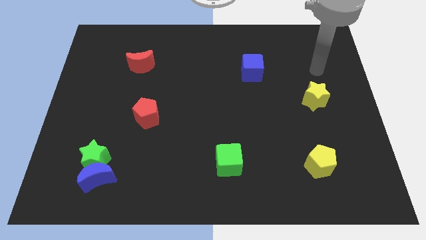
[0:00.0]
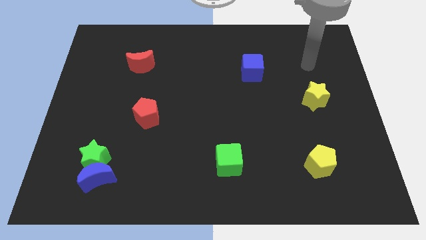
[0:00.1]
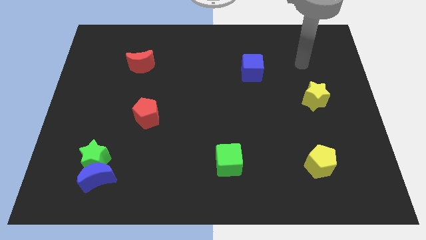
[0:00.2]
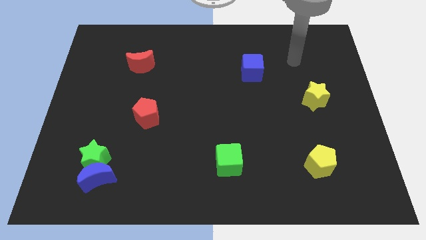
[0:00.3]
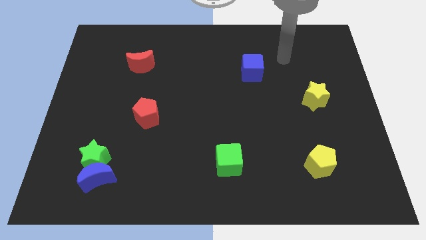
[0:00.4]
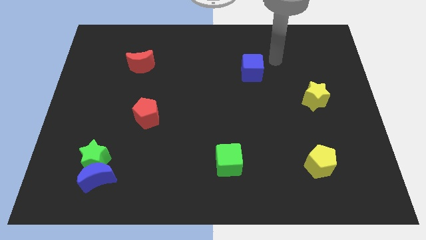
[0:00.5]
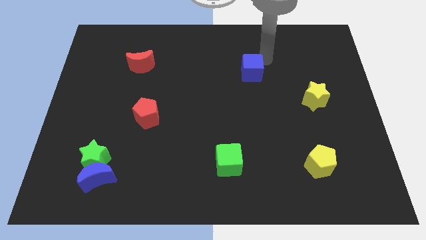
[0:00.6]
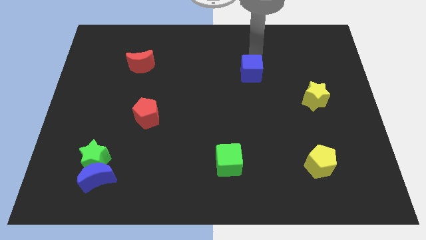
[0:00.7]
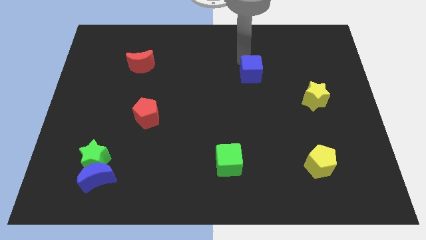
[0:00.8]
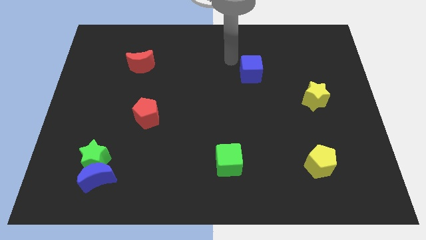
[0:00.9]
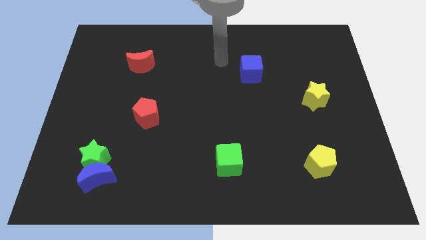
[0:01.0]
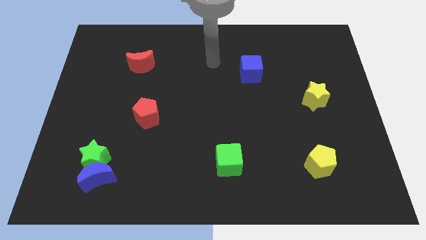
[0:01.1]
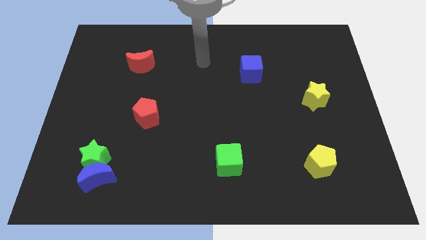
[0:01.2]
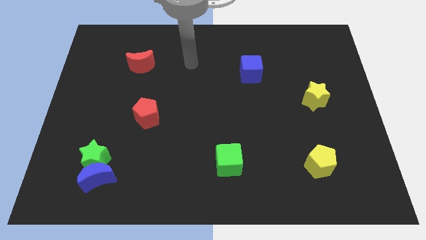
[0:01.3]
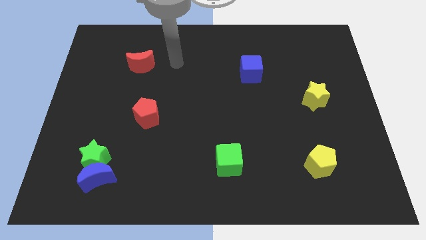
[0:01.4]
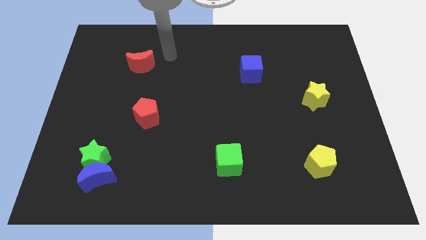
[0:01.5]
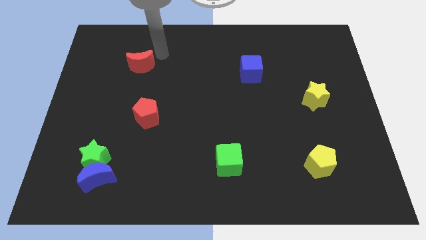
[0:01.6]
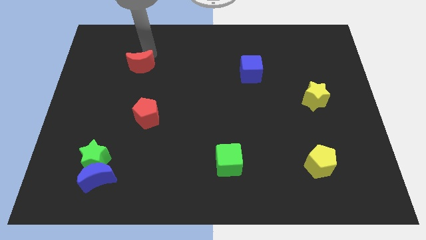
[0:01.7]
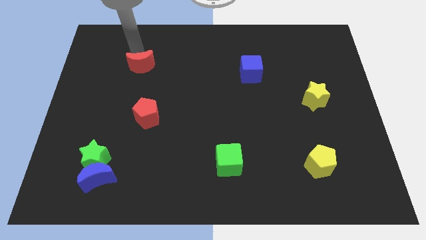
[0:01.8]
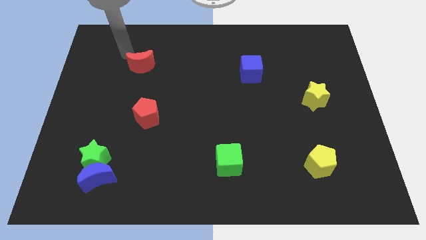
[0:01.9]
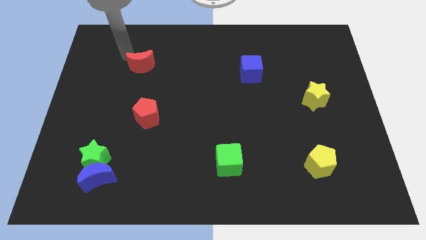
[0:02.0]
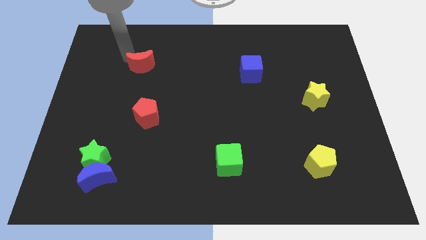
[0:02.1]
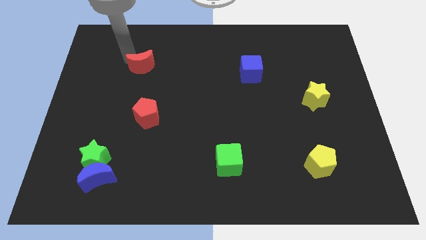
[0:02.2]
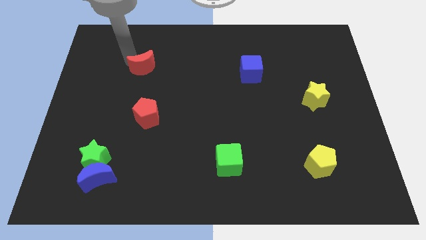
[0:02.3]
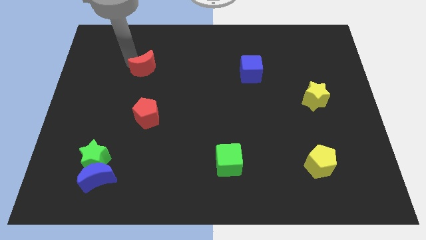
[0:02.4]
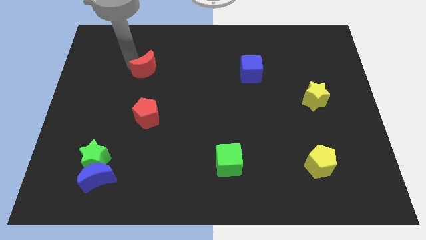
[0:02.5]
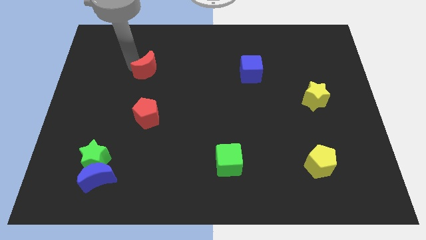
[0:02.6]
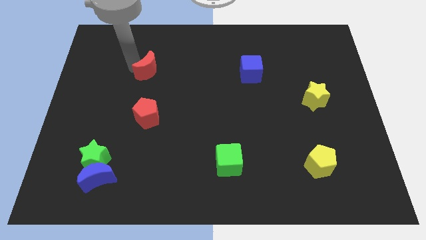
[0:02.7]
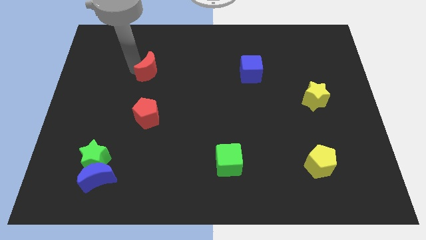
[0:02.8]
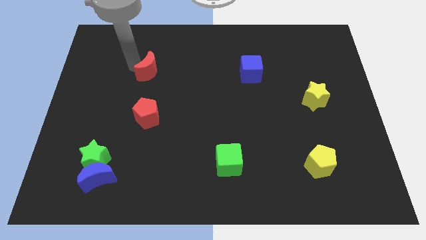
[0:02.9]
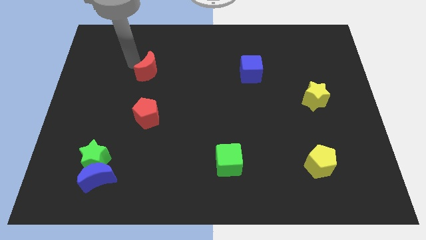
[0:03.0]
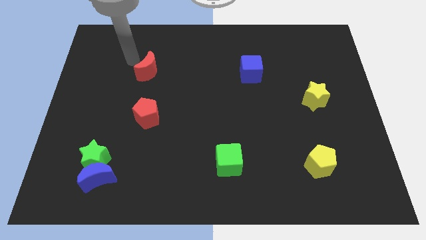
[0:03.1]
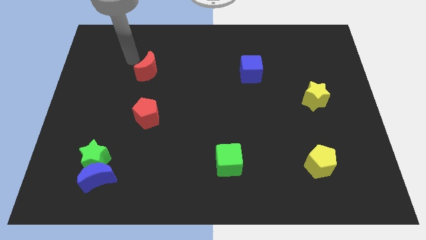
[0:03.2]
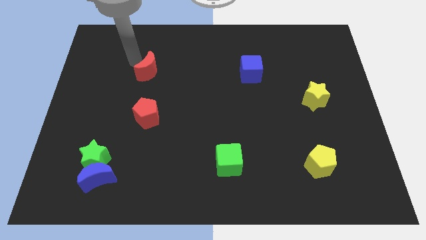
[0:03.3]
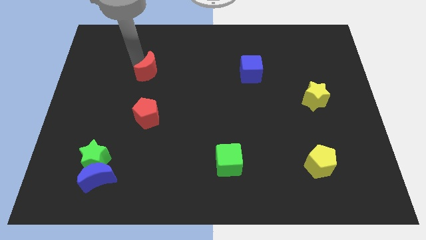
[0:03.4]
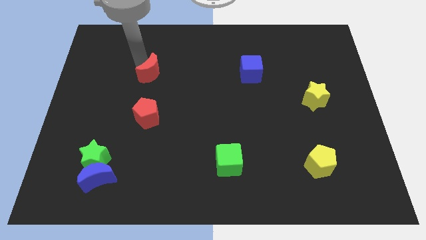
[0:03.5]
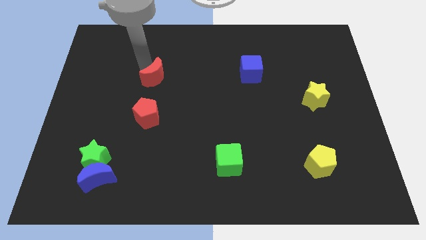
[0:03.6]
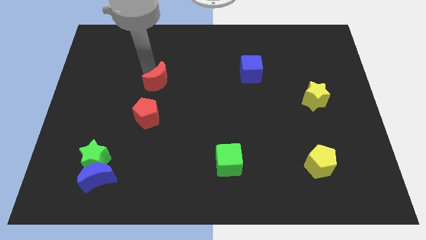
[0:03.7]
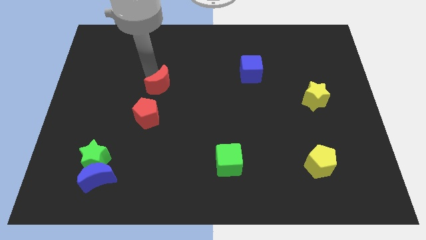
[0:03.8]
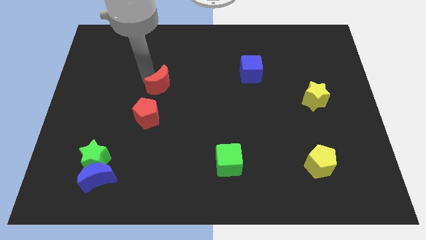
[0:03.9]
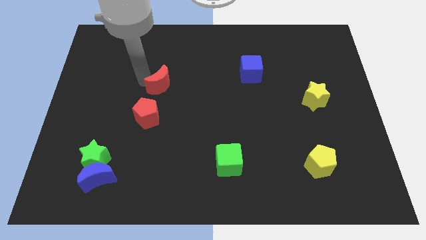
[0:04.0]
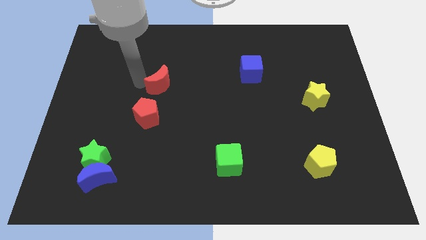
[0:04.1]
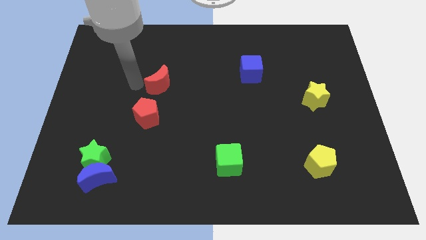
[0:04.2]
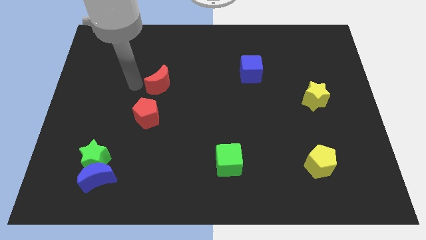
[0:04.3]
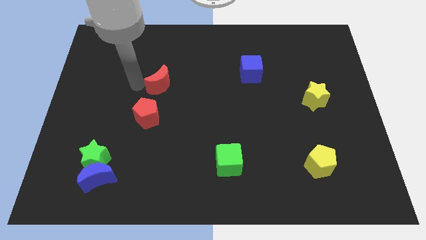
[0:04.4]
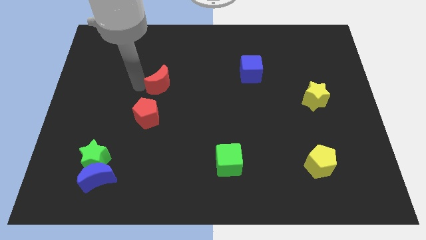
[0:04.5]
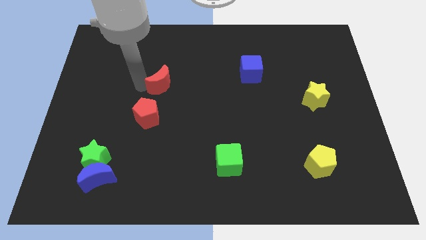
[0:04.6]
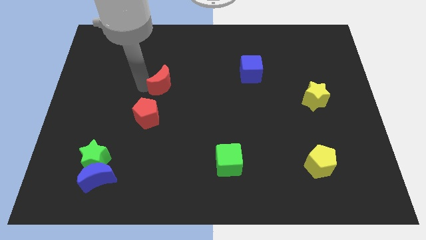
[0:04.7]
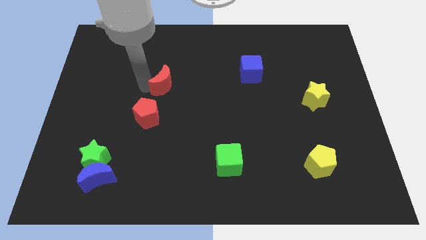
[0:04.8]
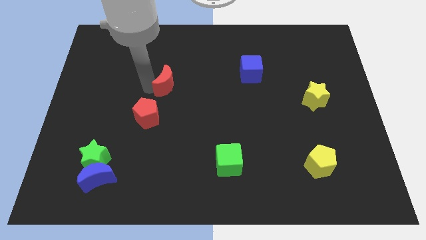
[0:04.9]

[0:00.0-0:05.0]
push the red moon to the middle of the board

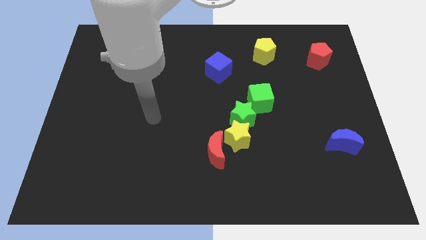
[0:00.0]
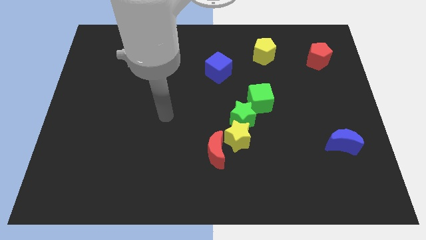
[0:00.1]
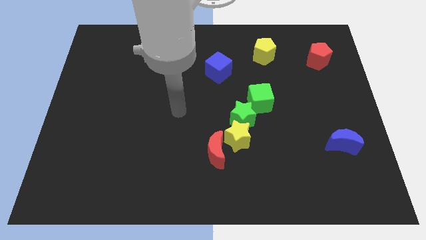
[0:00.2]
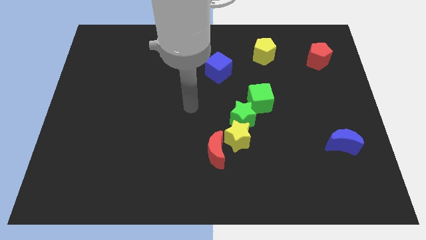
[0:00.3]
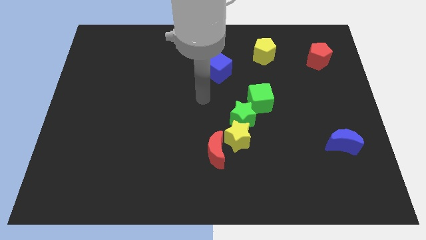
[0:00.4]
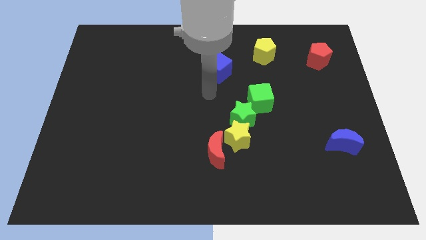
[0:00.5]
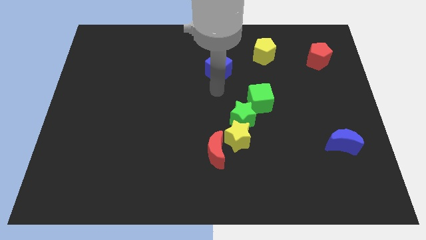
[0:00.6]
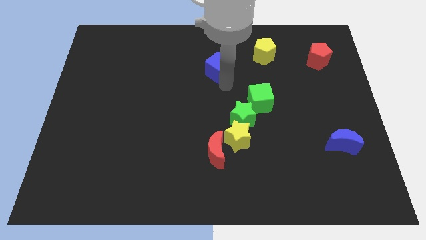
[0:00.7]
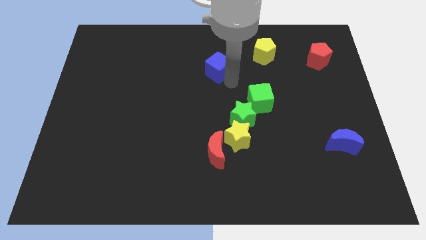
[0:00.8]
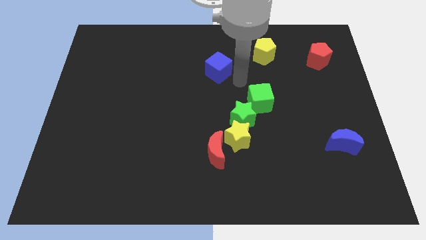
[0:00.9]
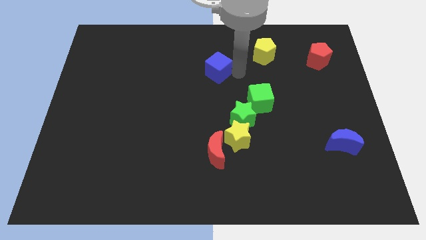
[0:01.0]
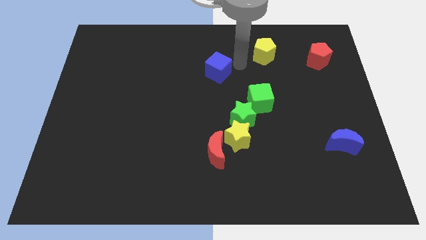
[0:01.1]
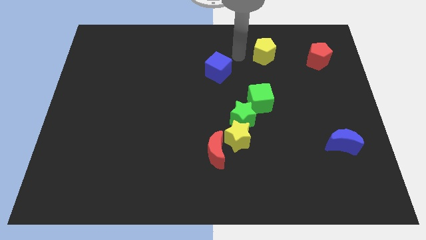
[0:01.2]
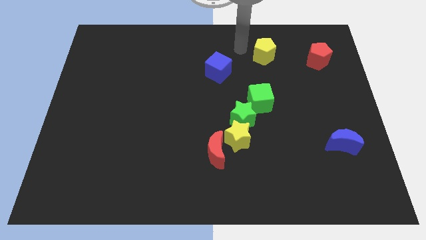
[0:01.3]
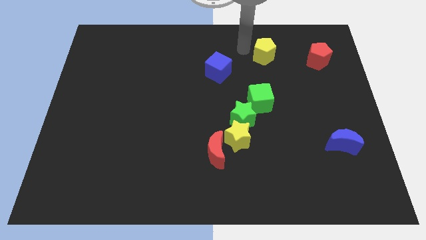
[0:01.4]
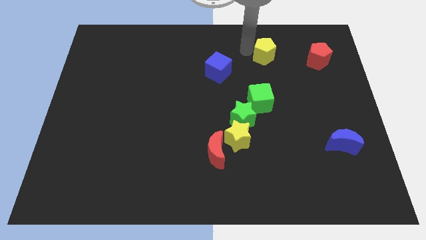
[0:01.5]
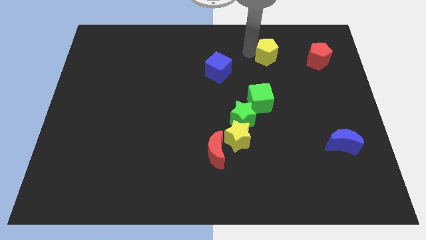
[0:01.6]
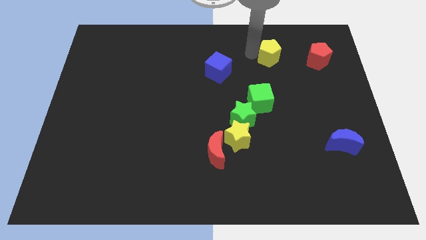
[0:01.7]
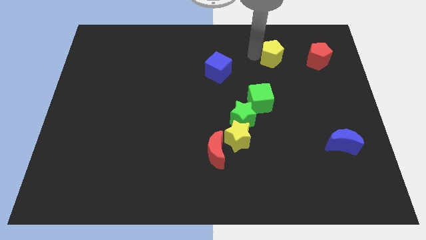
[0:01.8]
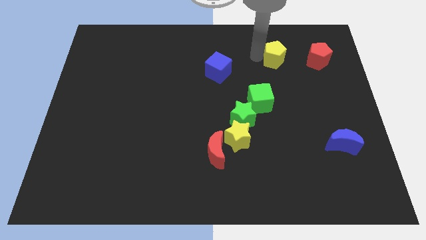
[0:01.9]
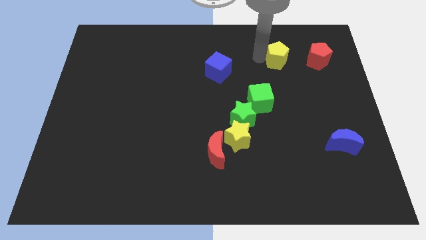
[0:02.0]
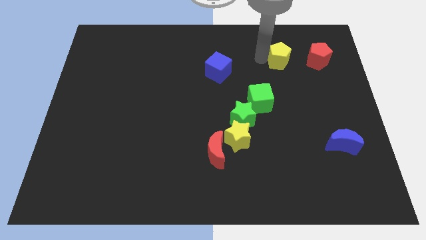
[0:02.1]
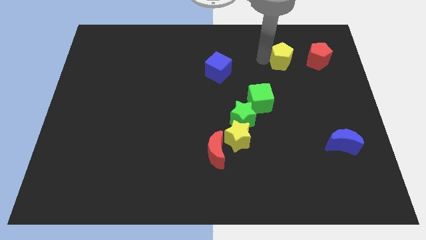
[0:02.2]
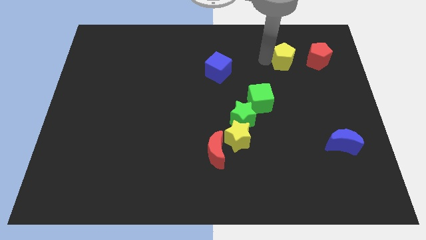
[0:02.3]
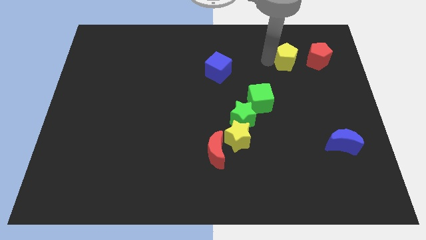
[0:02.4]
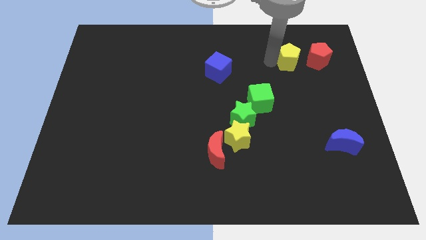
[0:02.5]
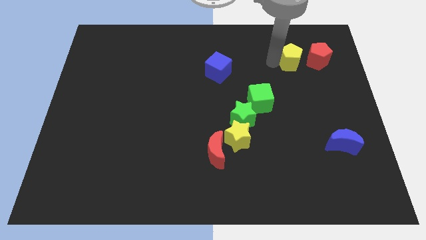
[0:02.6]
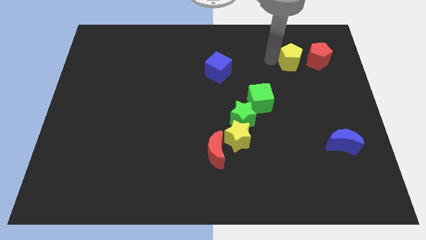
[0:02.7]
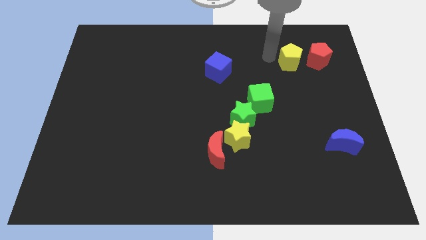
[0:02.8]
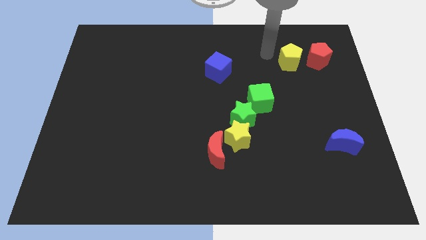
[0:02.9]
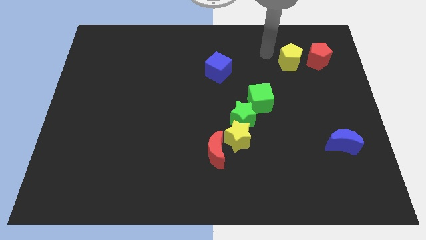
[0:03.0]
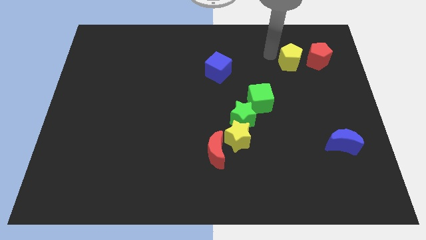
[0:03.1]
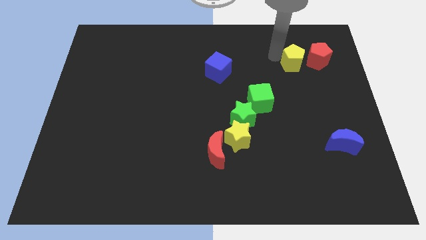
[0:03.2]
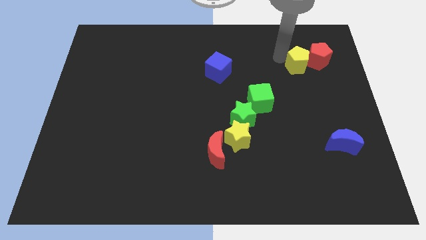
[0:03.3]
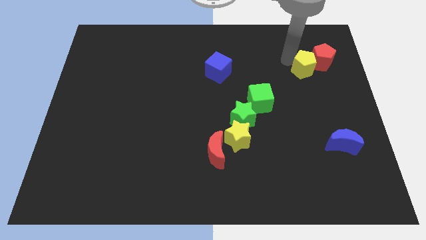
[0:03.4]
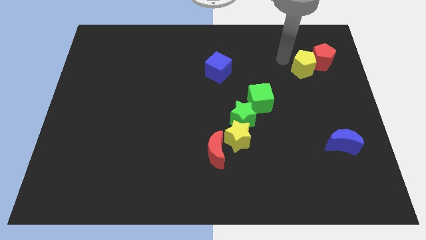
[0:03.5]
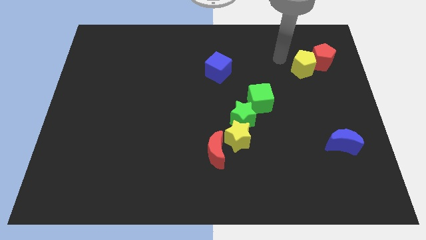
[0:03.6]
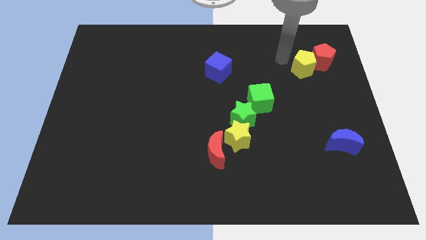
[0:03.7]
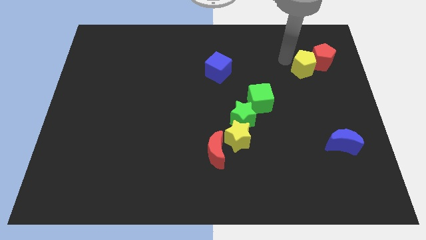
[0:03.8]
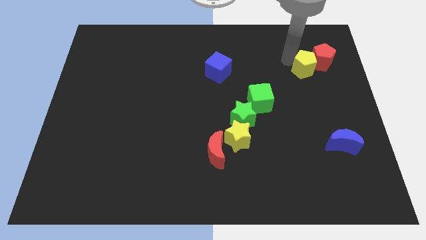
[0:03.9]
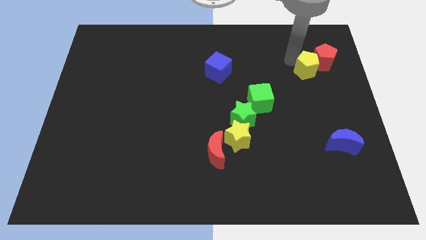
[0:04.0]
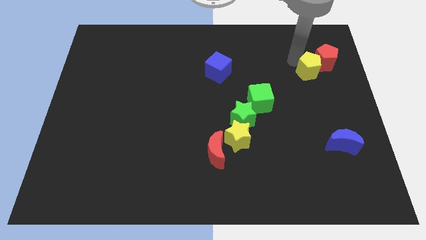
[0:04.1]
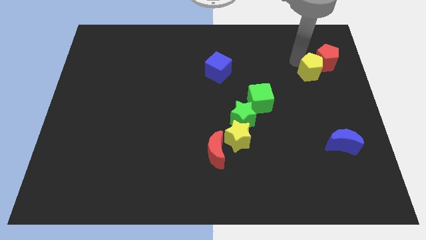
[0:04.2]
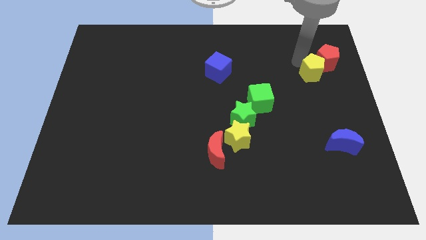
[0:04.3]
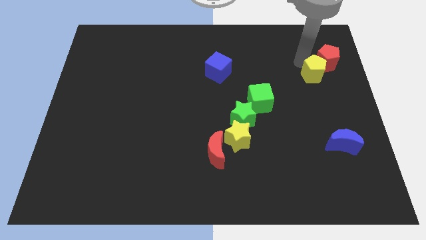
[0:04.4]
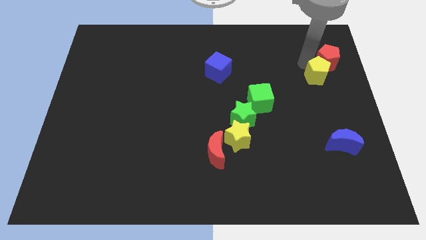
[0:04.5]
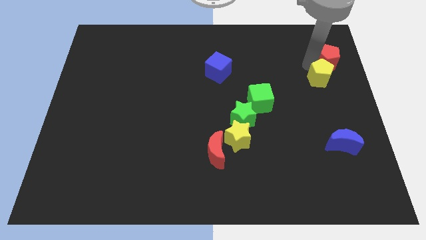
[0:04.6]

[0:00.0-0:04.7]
push the yellow pentagon to the right side of the board
